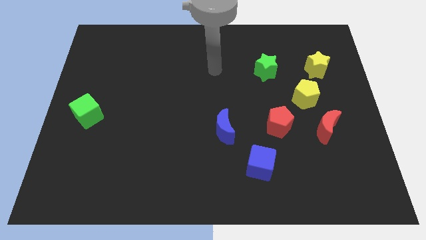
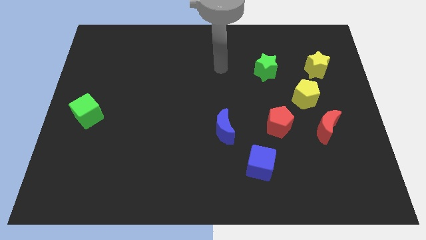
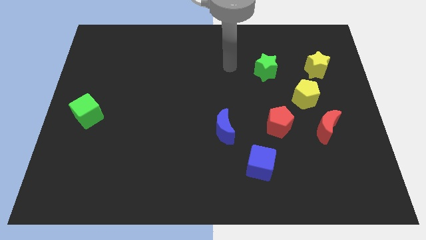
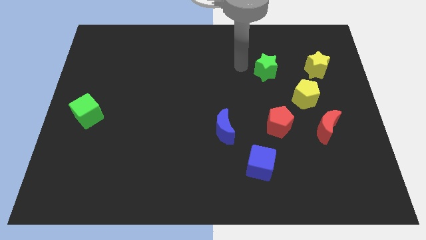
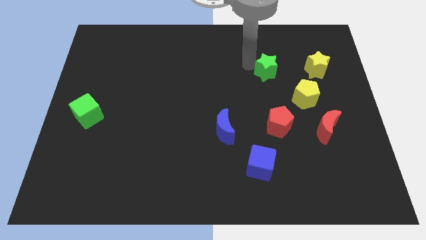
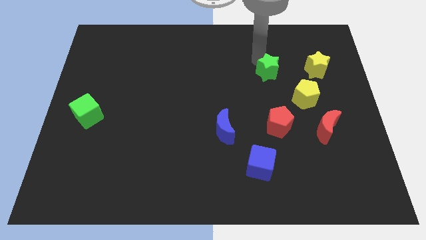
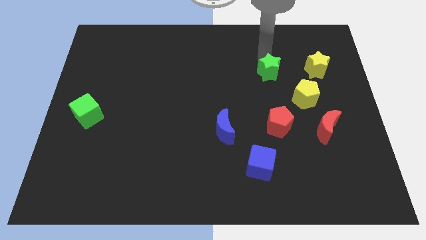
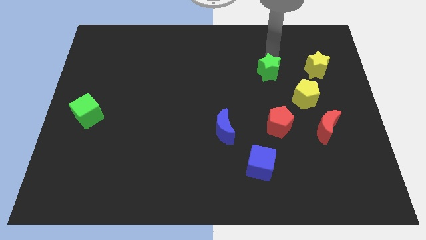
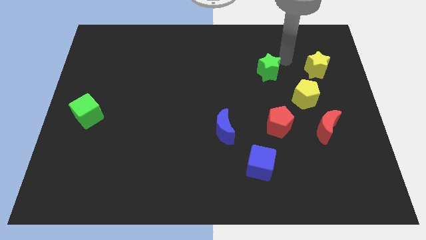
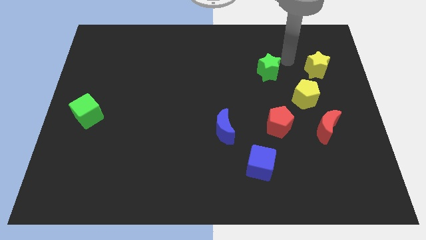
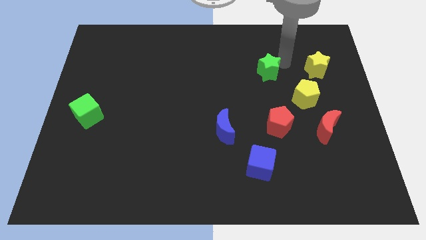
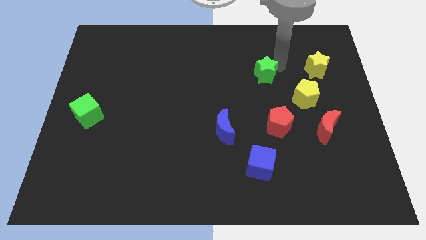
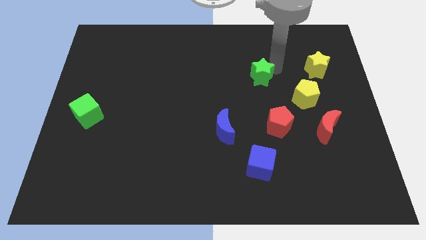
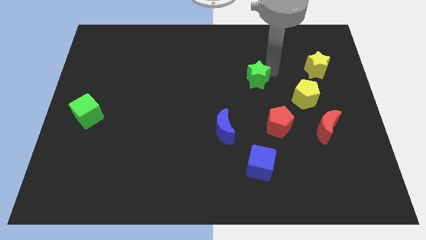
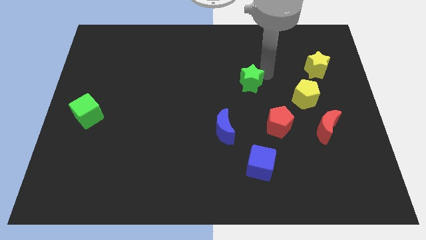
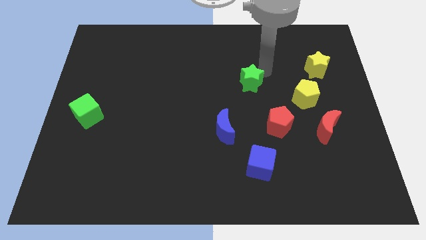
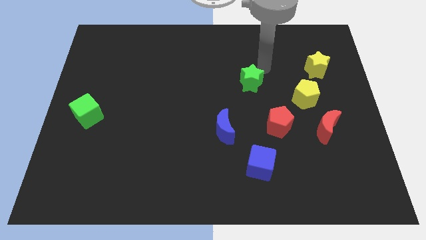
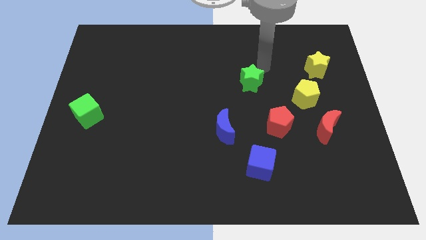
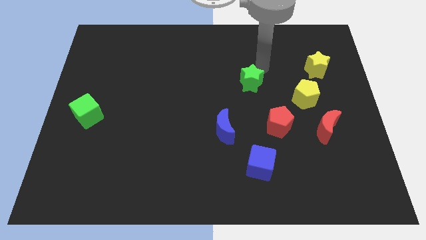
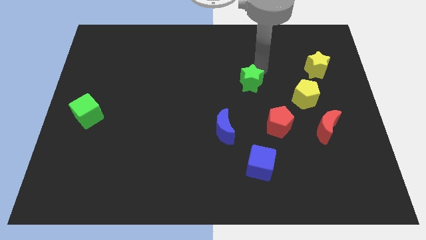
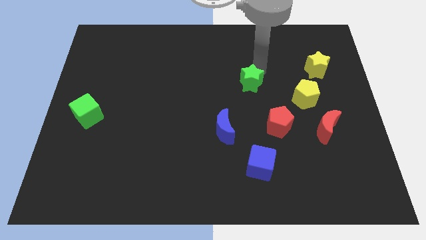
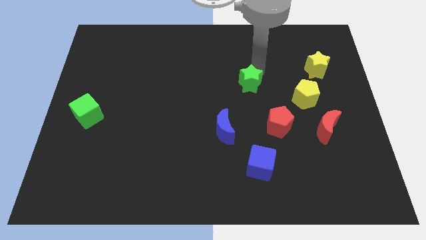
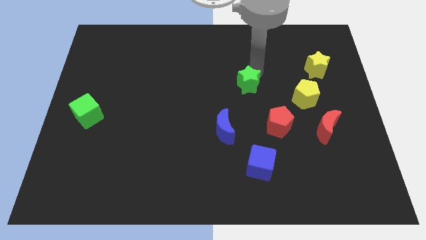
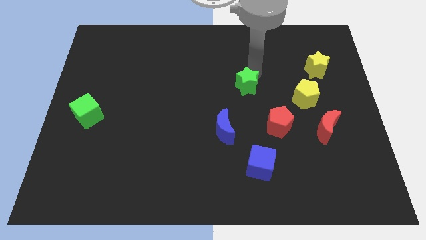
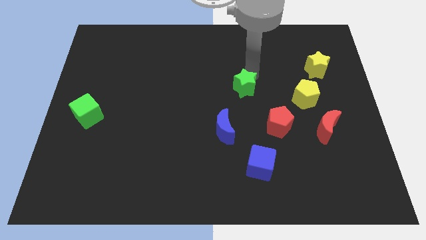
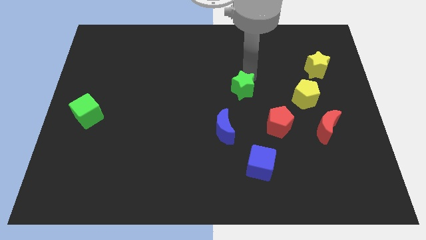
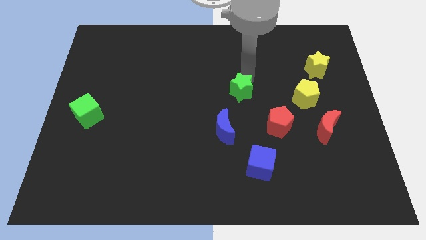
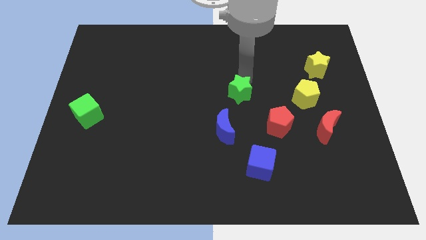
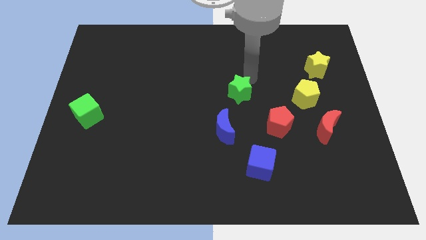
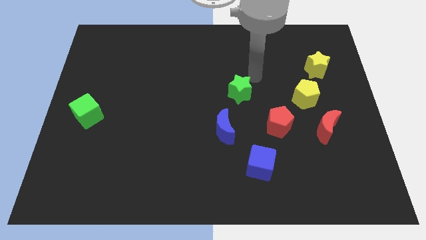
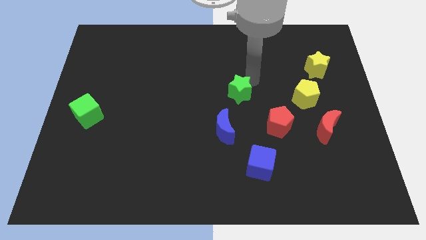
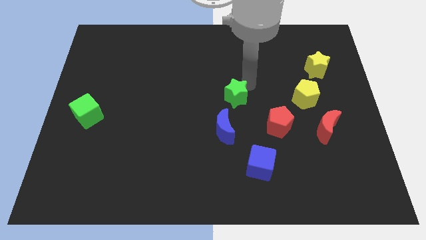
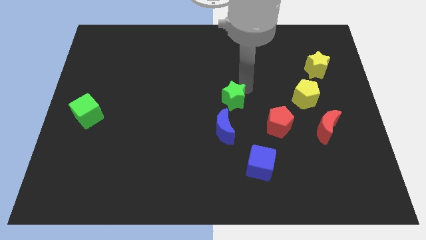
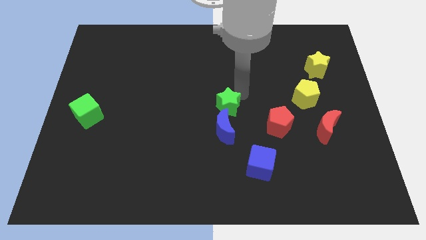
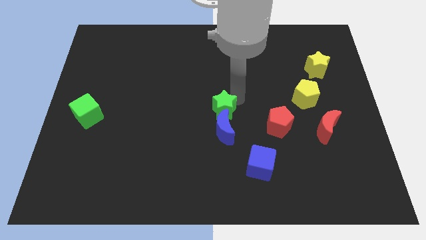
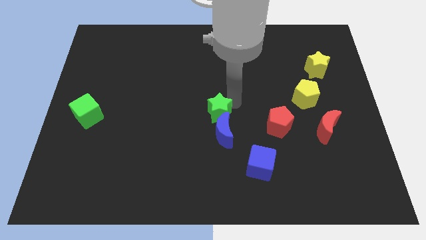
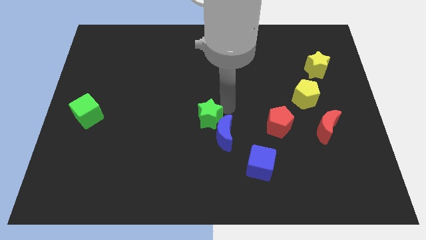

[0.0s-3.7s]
push the green star diagonally downwards and left

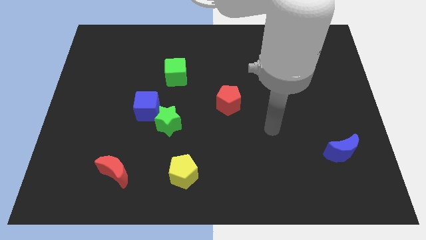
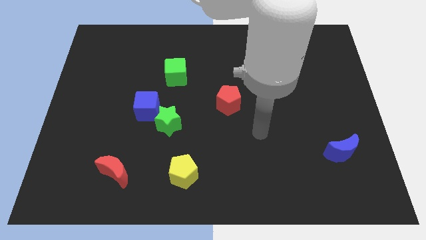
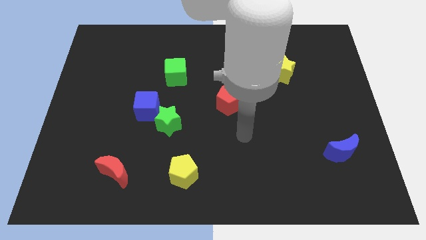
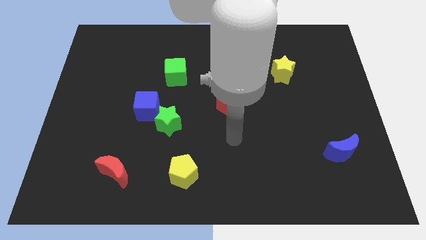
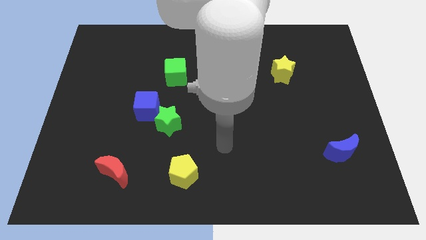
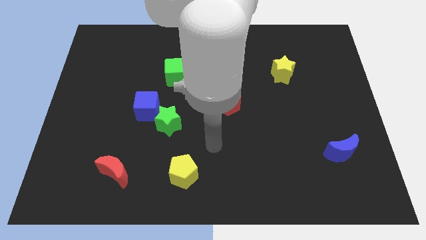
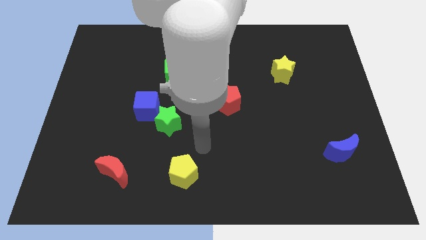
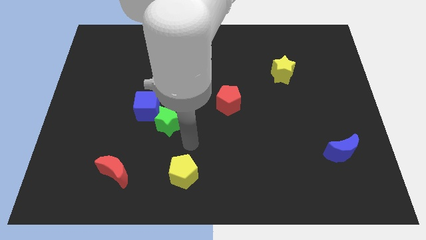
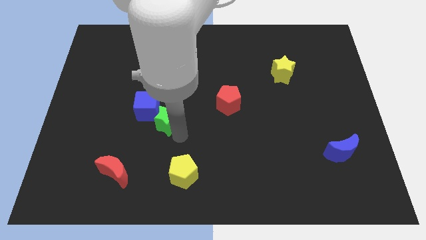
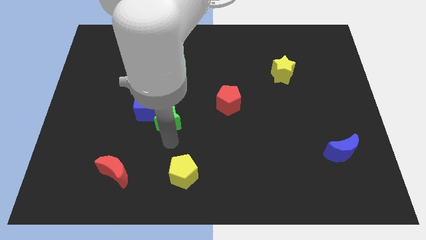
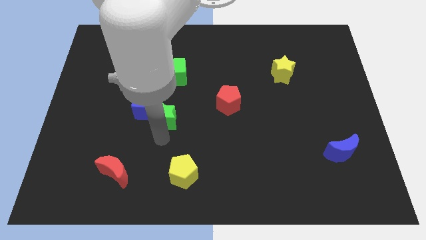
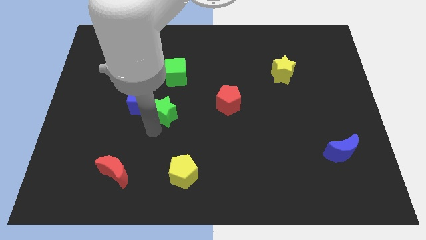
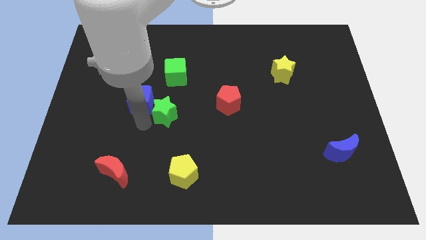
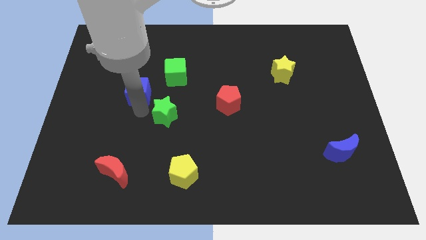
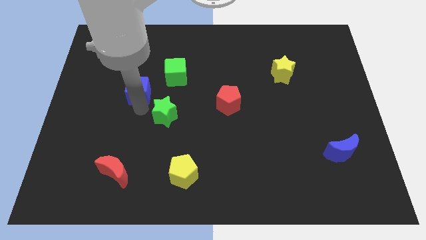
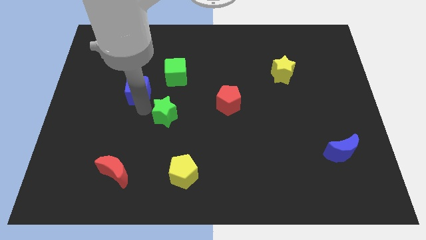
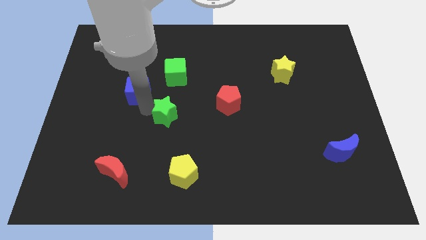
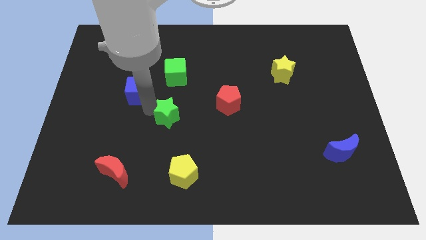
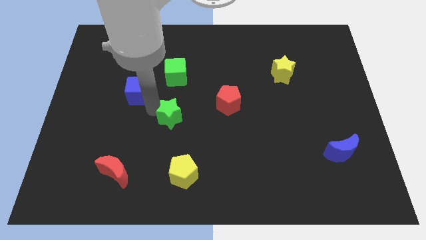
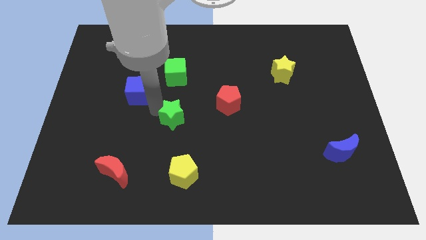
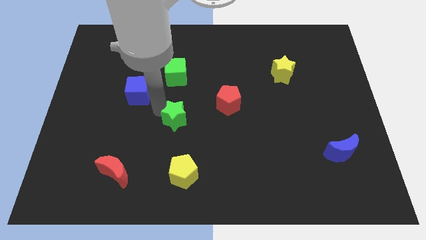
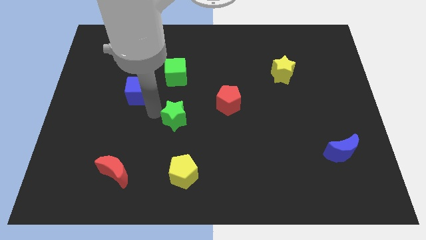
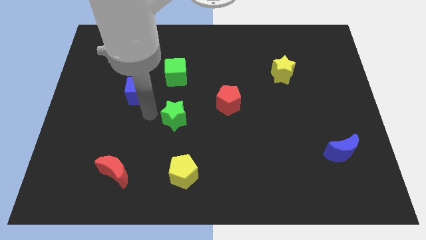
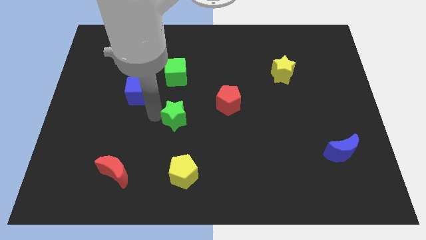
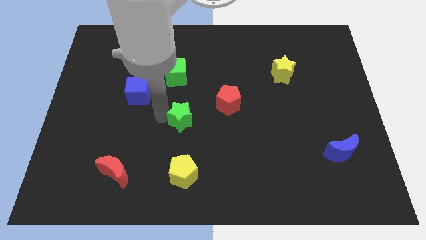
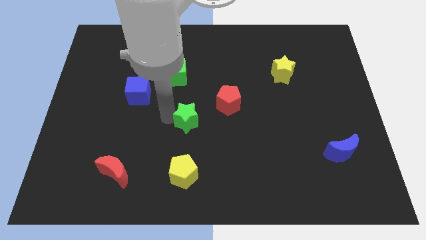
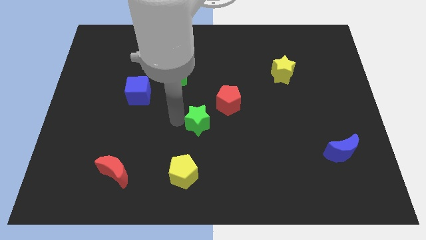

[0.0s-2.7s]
slide the green star right somewhat

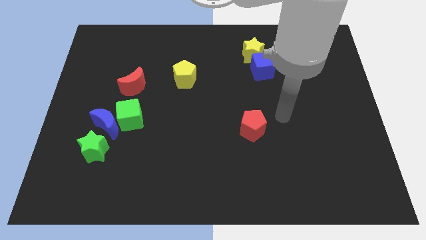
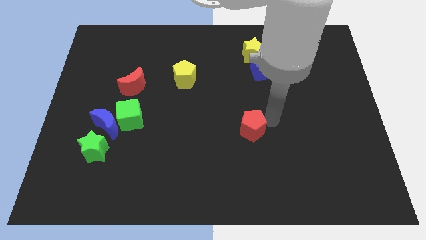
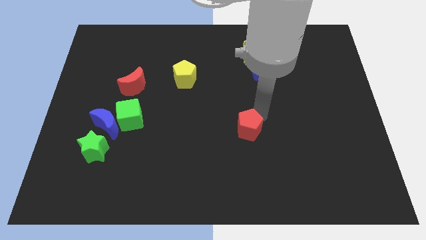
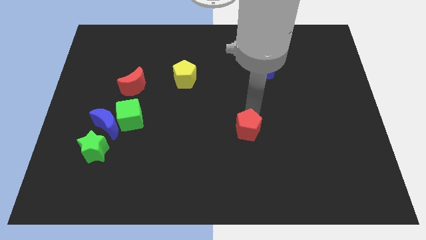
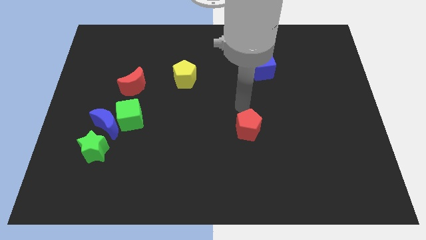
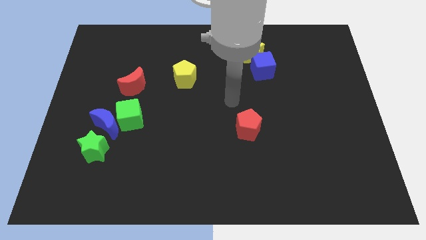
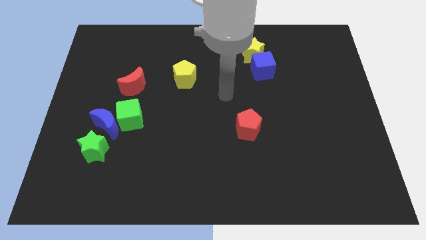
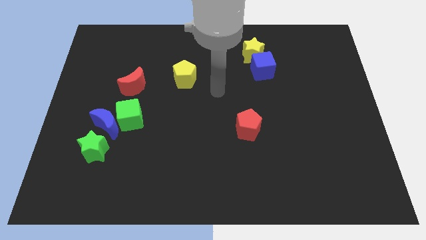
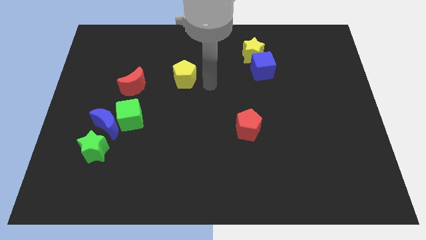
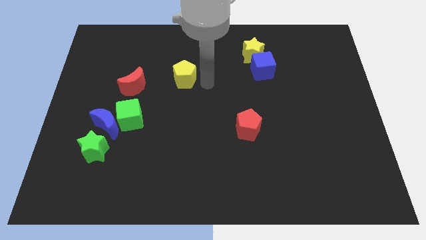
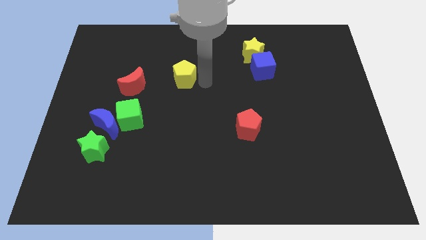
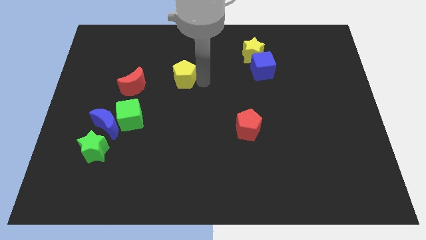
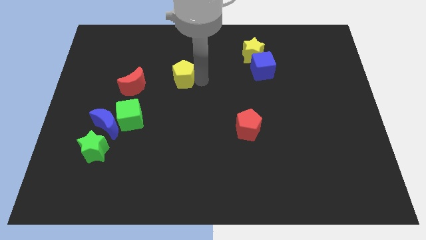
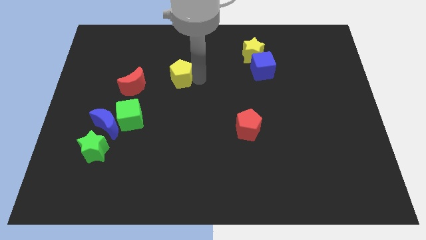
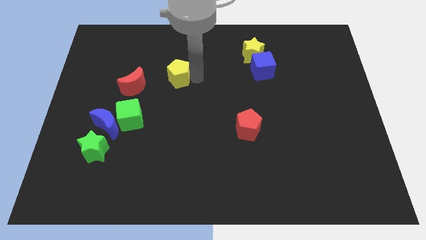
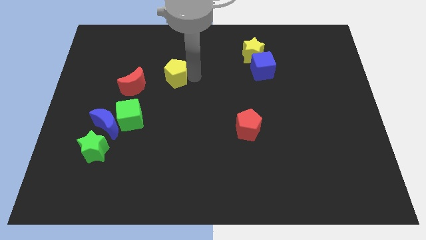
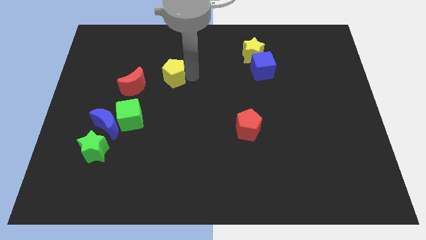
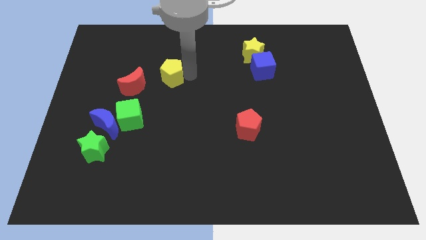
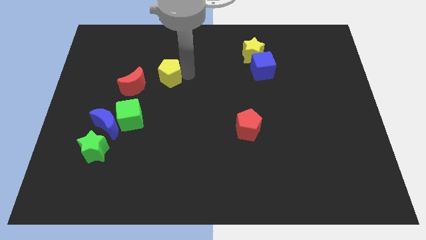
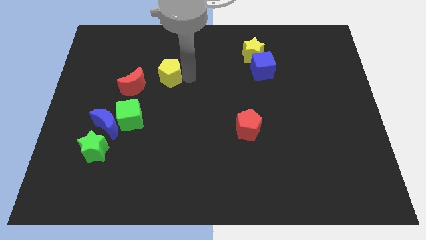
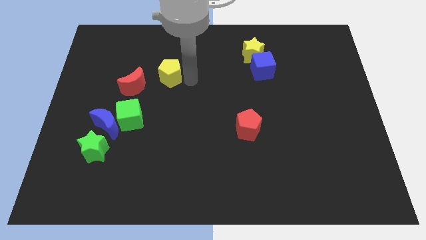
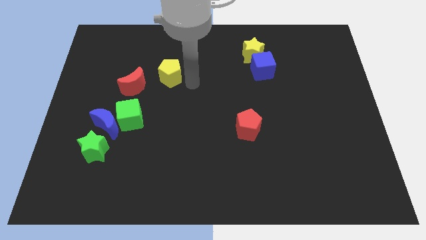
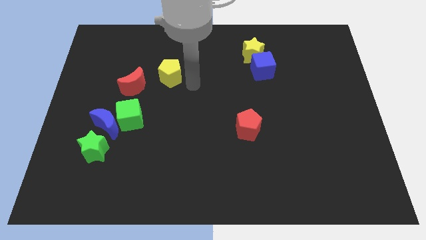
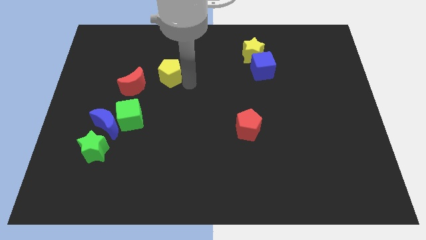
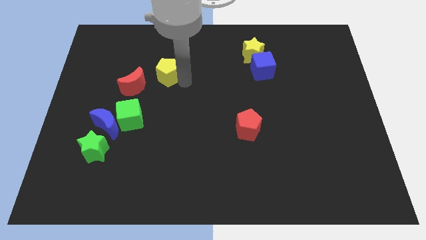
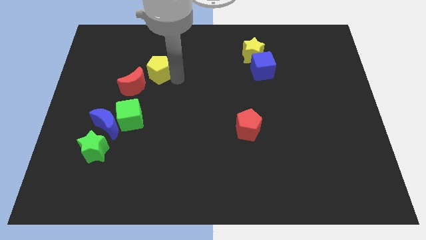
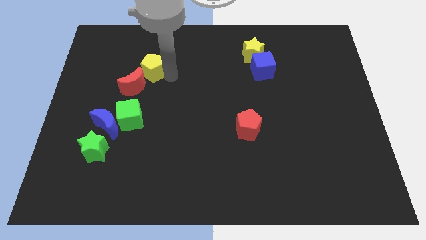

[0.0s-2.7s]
slightly push the yellow pentagon left
